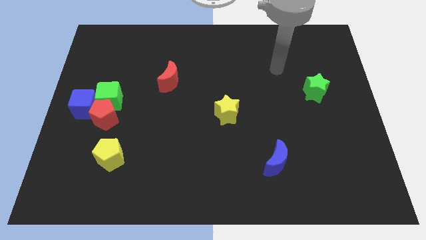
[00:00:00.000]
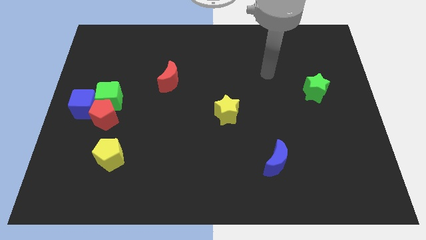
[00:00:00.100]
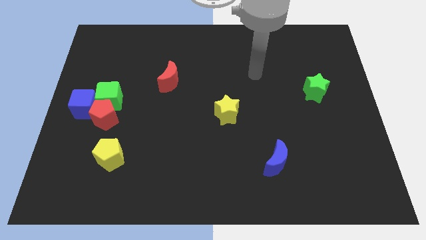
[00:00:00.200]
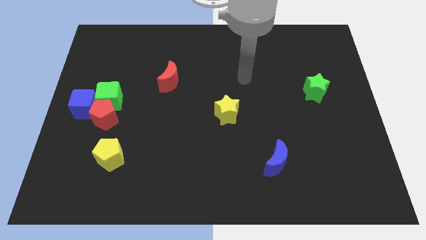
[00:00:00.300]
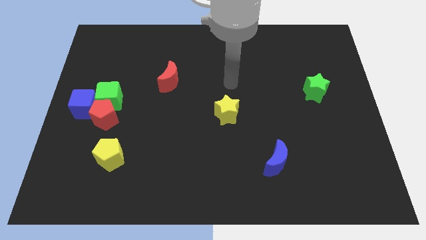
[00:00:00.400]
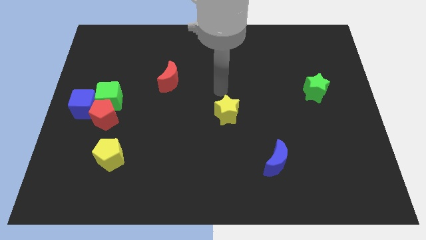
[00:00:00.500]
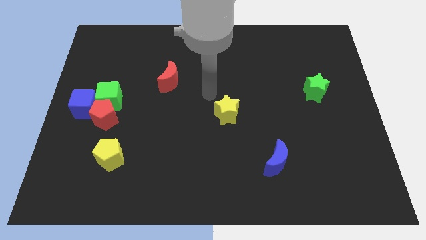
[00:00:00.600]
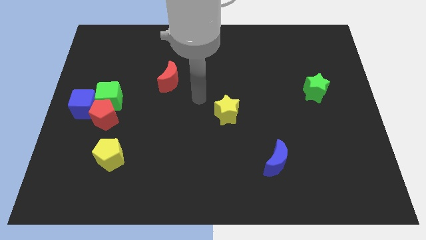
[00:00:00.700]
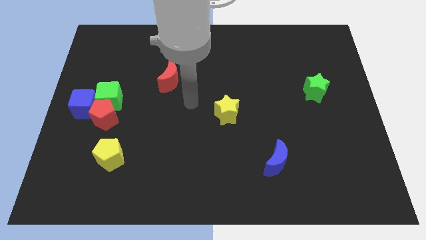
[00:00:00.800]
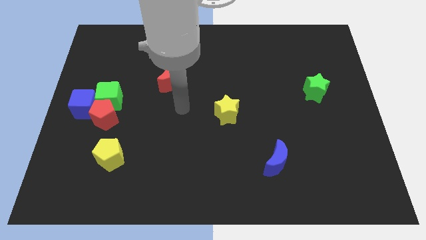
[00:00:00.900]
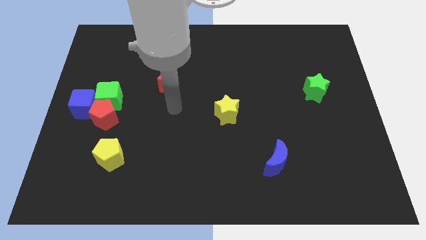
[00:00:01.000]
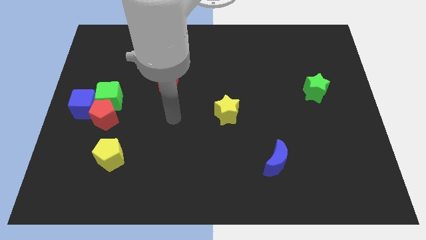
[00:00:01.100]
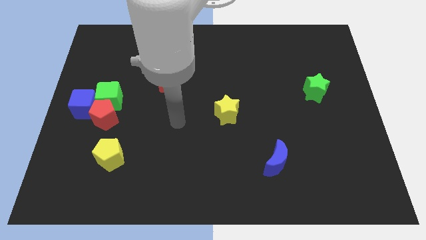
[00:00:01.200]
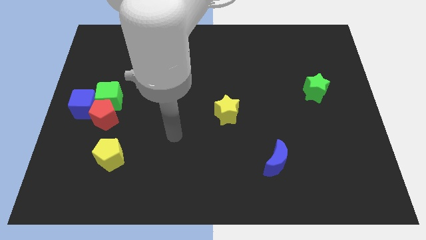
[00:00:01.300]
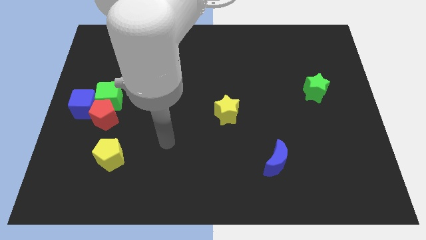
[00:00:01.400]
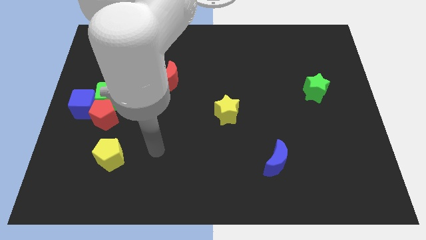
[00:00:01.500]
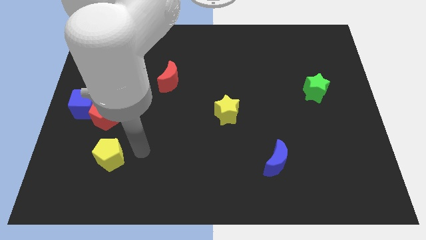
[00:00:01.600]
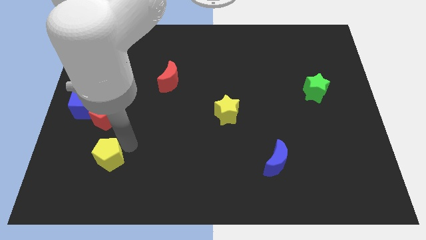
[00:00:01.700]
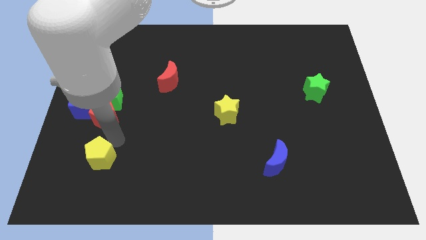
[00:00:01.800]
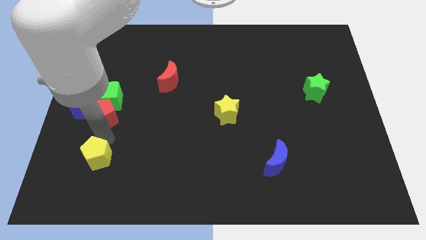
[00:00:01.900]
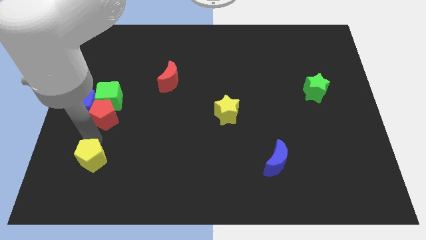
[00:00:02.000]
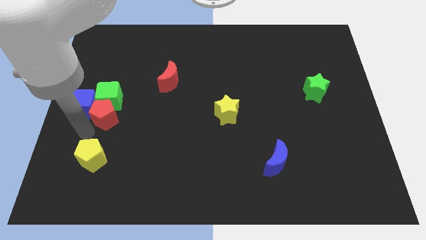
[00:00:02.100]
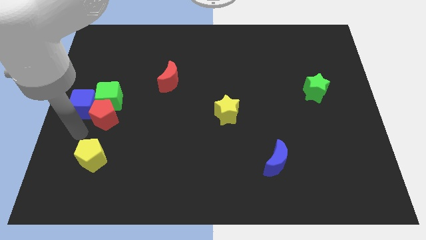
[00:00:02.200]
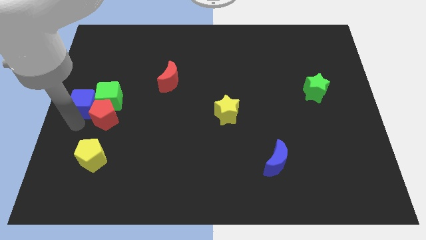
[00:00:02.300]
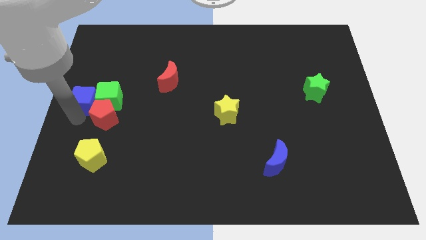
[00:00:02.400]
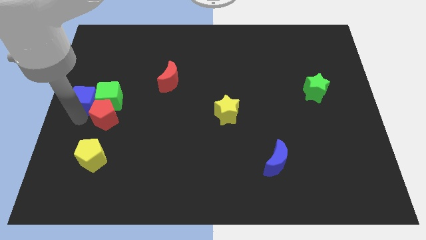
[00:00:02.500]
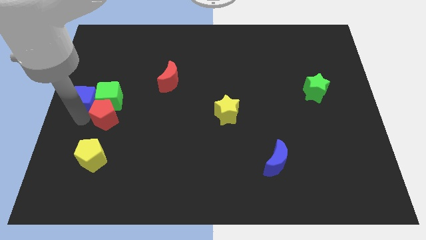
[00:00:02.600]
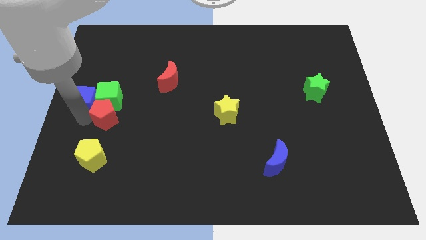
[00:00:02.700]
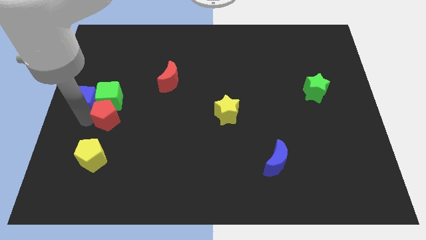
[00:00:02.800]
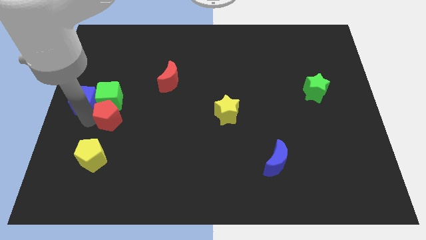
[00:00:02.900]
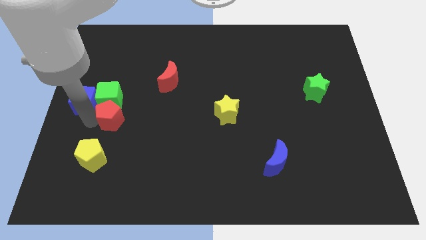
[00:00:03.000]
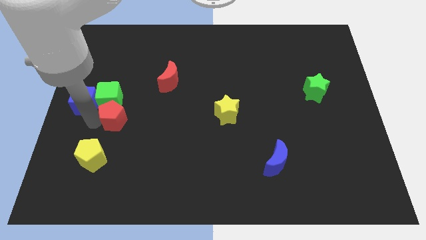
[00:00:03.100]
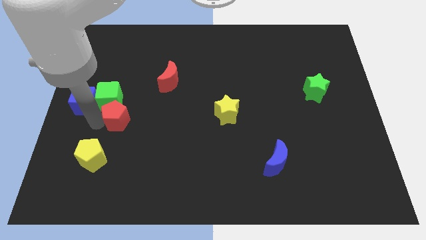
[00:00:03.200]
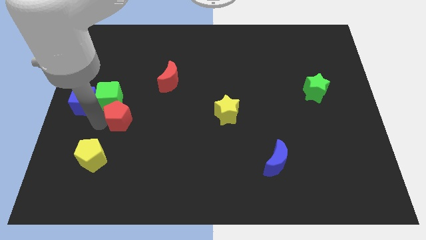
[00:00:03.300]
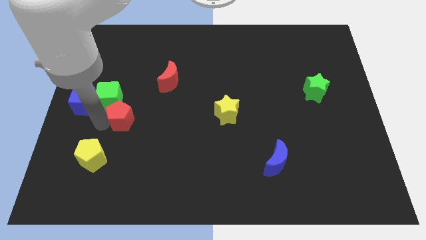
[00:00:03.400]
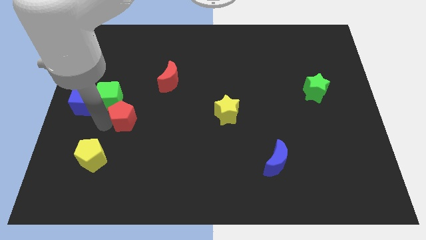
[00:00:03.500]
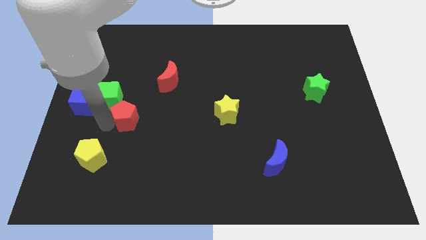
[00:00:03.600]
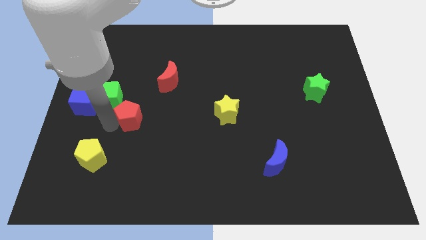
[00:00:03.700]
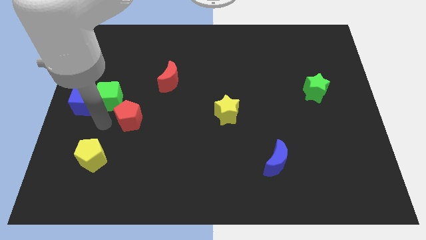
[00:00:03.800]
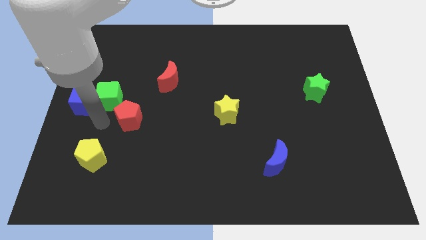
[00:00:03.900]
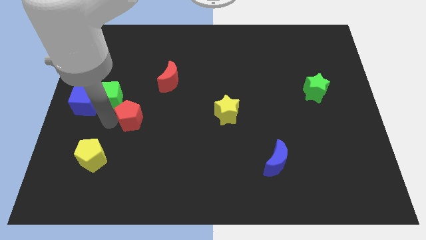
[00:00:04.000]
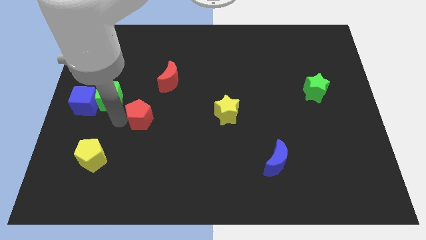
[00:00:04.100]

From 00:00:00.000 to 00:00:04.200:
push the red pentagon a little right

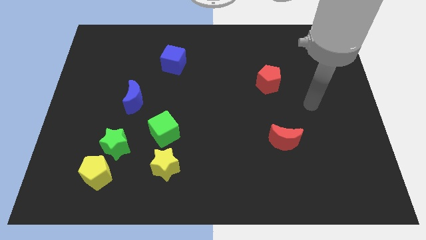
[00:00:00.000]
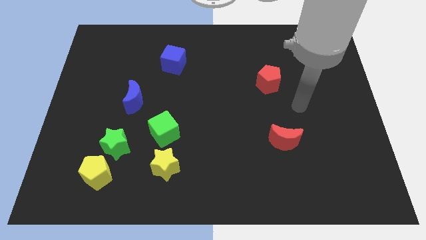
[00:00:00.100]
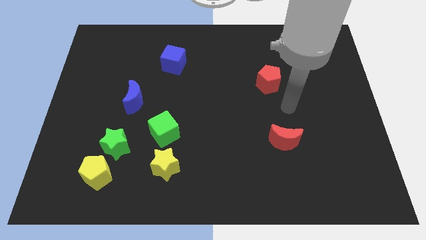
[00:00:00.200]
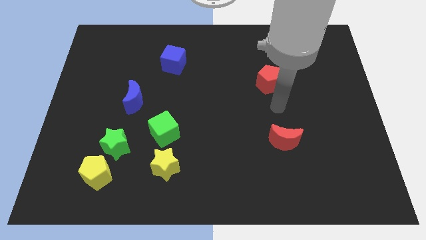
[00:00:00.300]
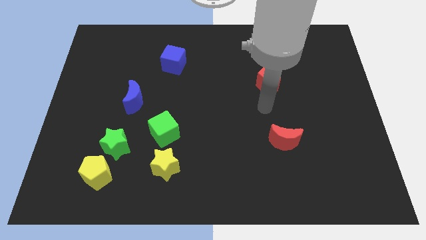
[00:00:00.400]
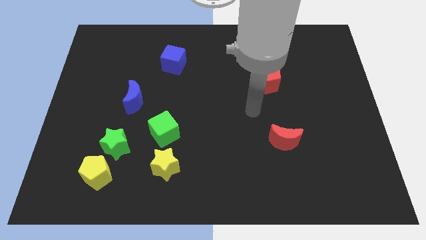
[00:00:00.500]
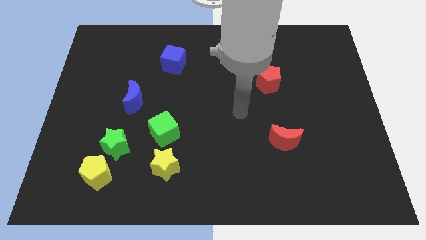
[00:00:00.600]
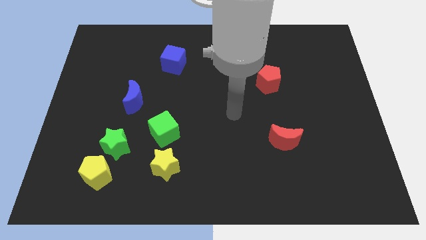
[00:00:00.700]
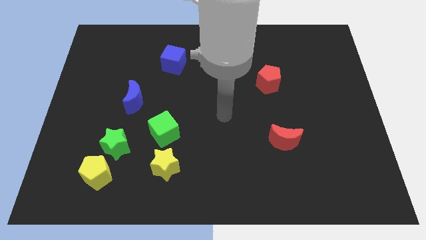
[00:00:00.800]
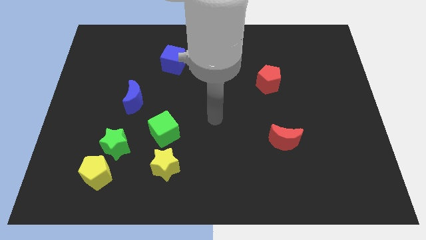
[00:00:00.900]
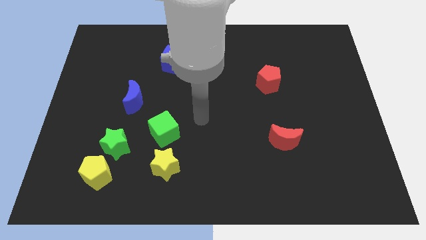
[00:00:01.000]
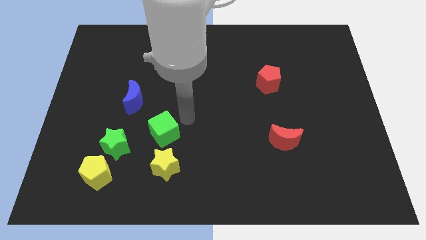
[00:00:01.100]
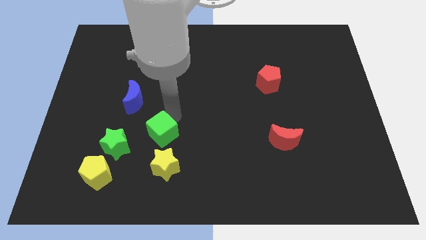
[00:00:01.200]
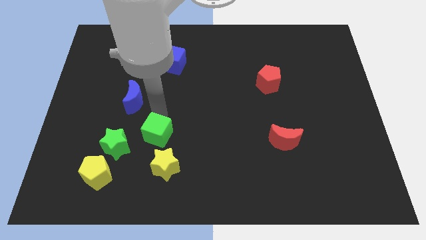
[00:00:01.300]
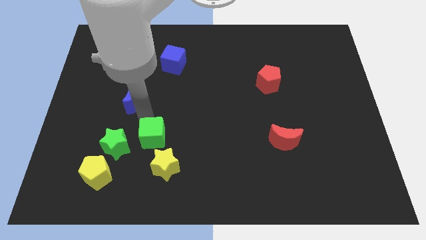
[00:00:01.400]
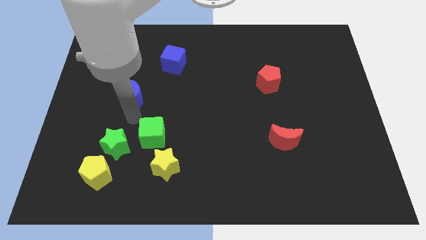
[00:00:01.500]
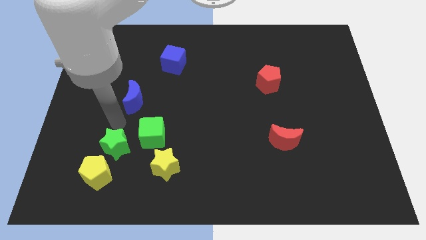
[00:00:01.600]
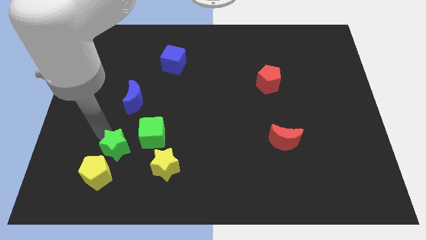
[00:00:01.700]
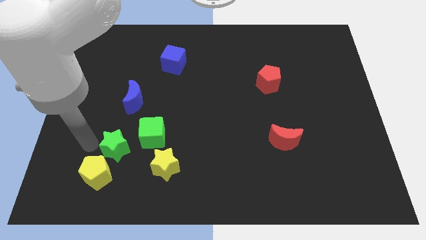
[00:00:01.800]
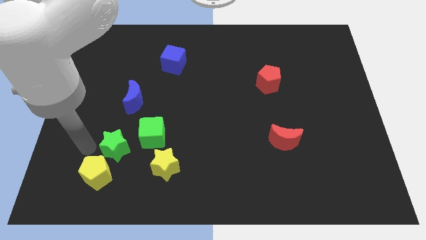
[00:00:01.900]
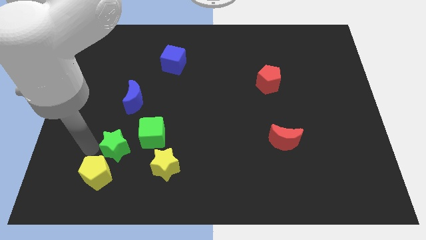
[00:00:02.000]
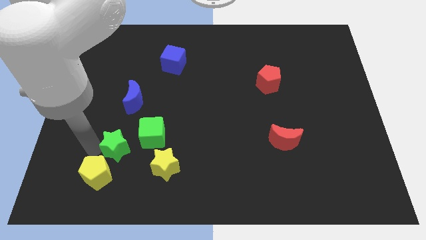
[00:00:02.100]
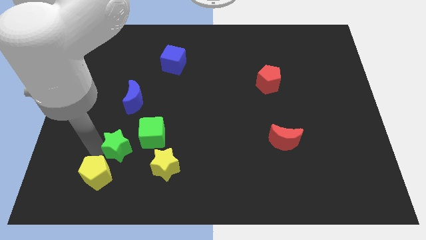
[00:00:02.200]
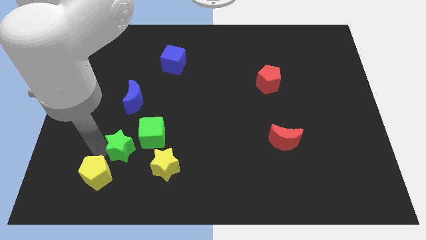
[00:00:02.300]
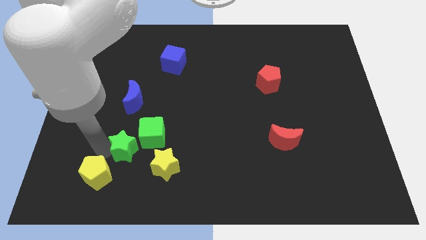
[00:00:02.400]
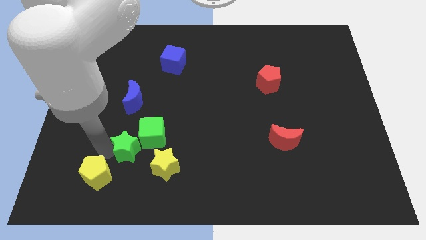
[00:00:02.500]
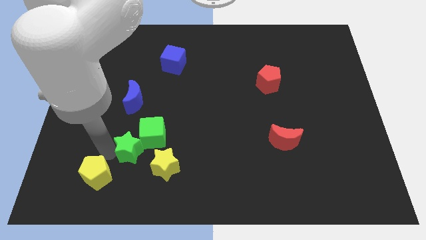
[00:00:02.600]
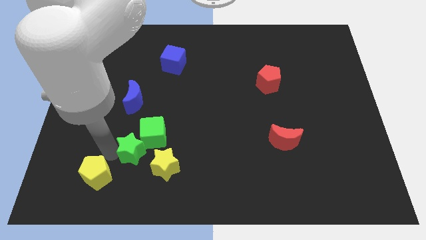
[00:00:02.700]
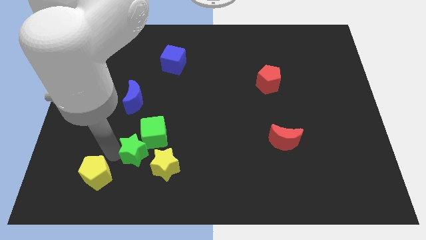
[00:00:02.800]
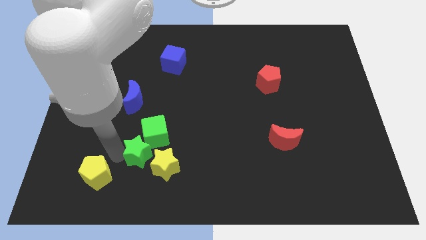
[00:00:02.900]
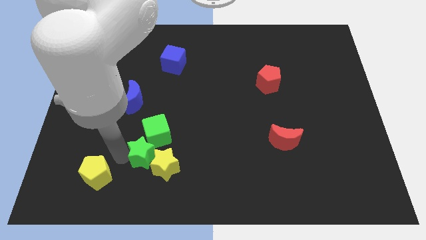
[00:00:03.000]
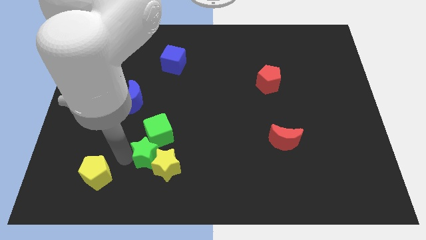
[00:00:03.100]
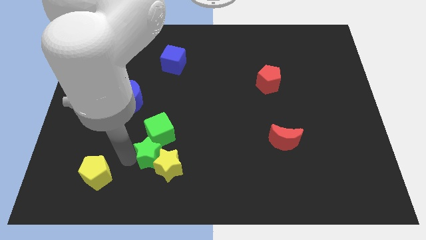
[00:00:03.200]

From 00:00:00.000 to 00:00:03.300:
slightly move the green star to the right

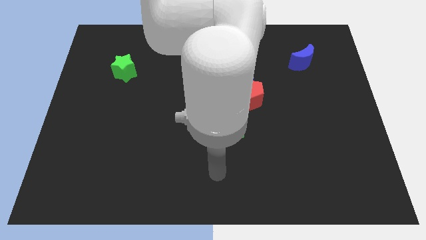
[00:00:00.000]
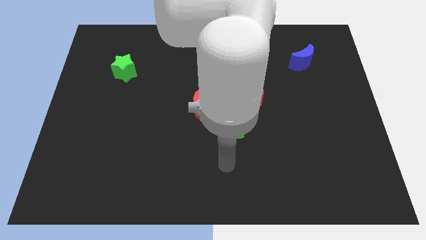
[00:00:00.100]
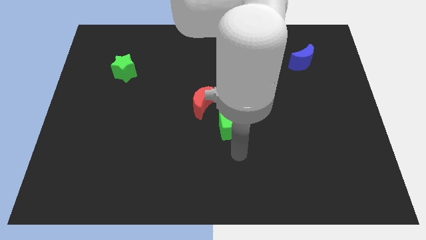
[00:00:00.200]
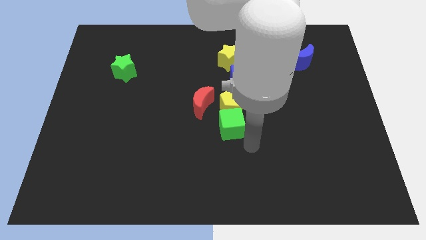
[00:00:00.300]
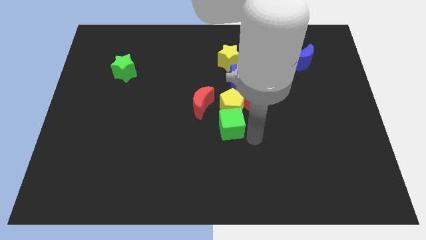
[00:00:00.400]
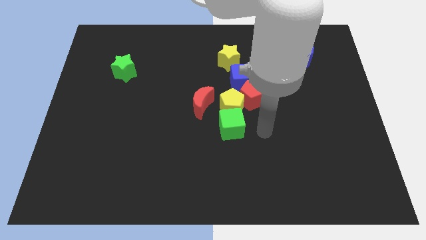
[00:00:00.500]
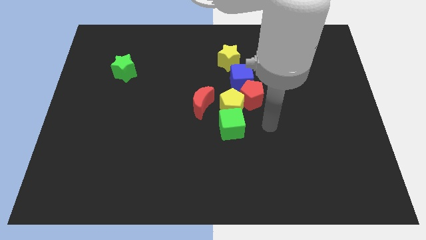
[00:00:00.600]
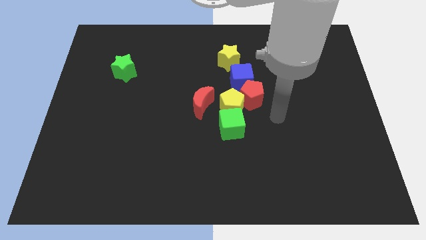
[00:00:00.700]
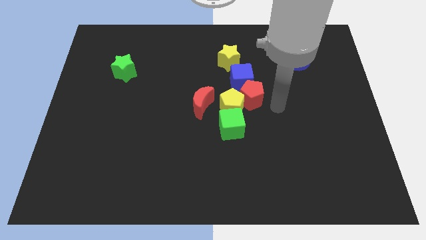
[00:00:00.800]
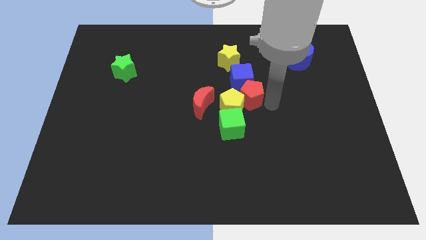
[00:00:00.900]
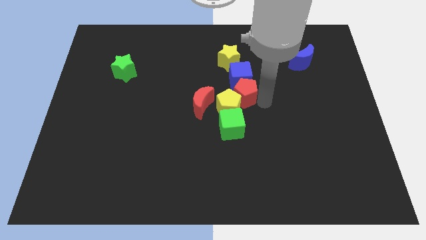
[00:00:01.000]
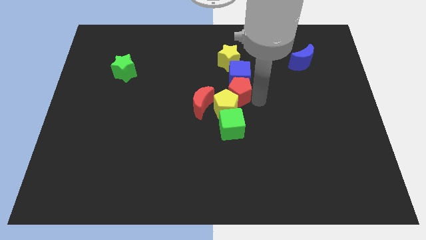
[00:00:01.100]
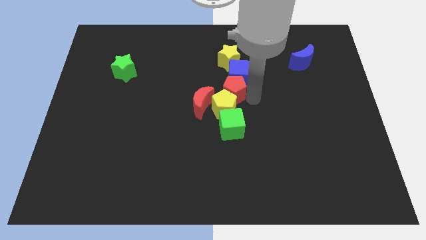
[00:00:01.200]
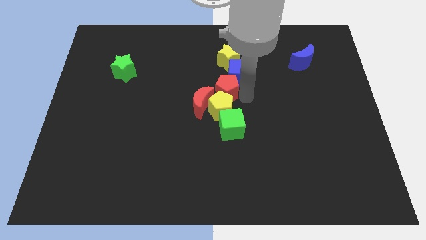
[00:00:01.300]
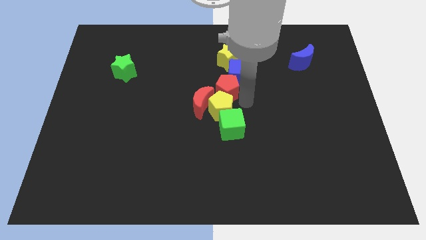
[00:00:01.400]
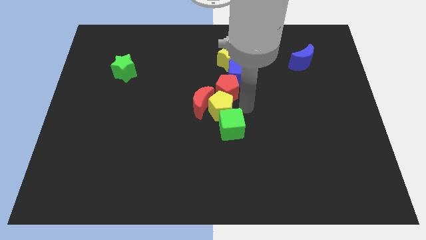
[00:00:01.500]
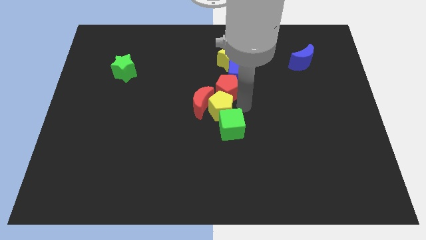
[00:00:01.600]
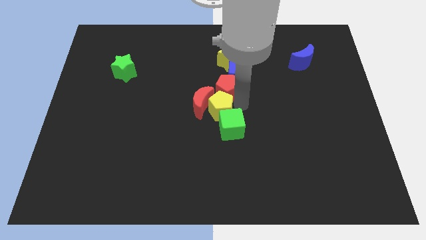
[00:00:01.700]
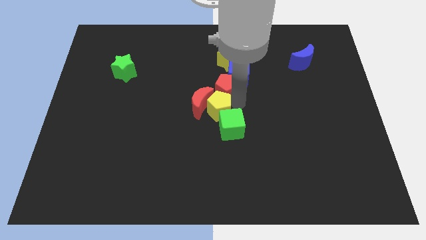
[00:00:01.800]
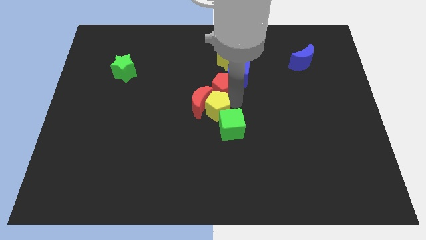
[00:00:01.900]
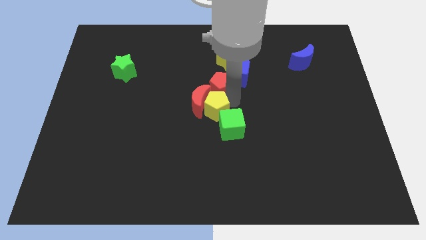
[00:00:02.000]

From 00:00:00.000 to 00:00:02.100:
slide the red pentagon up and then left a bit
